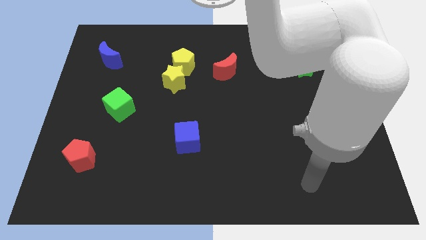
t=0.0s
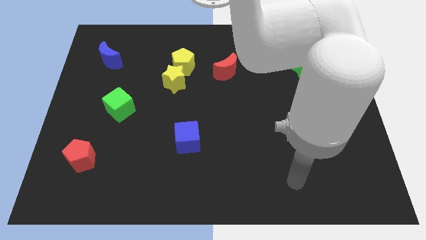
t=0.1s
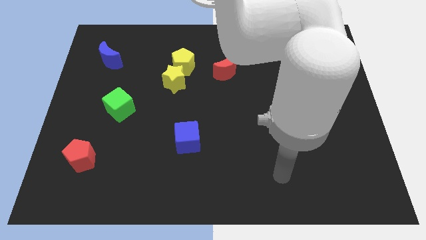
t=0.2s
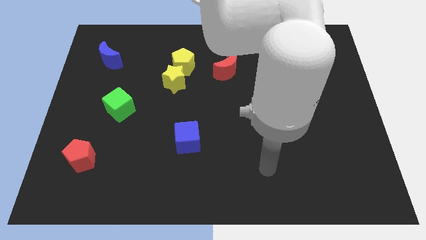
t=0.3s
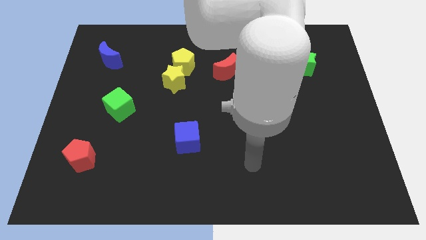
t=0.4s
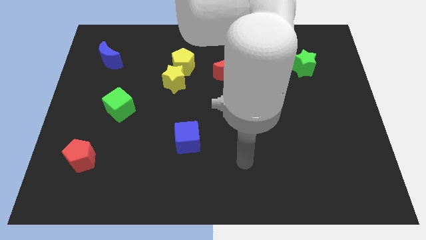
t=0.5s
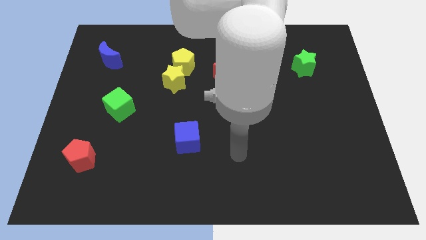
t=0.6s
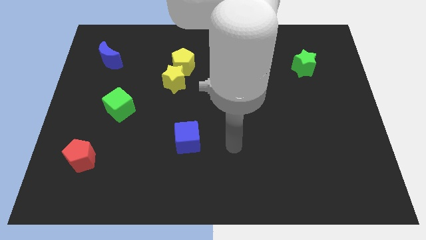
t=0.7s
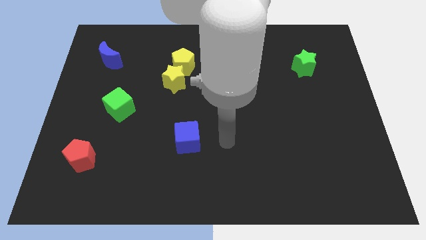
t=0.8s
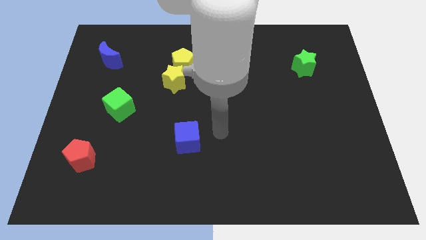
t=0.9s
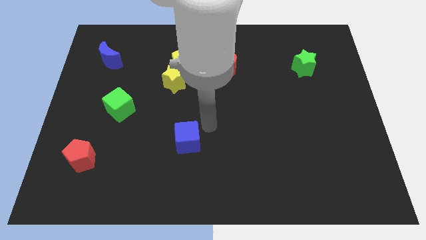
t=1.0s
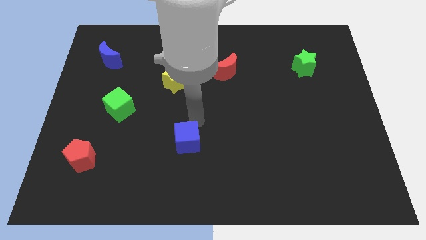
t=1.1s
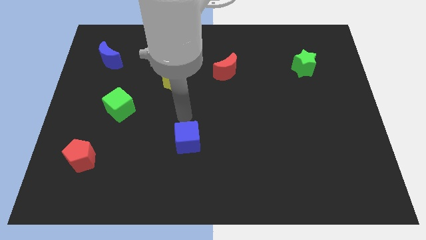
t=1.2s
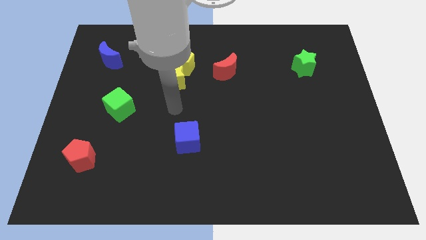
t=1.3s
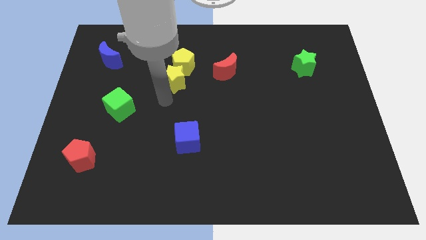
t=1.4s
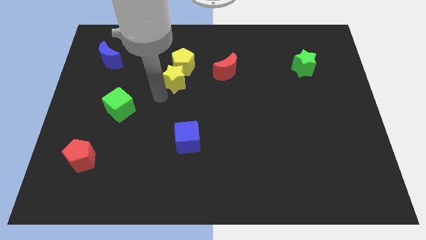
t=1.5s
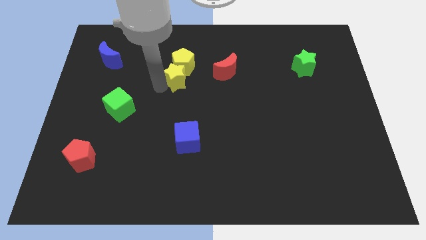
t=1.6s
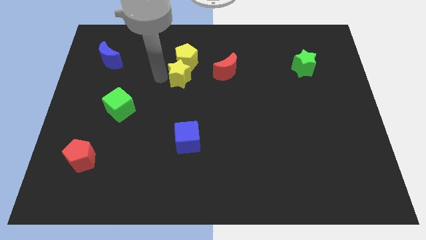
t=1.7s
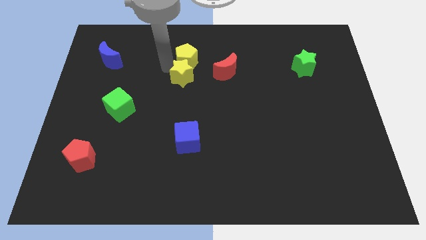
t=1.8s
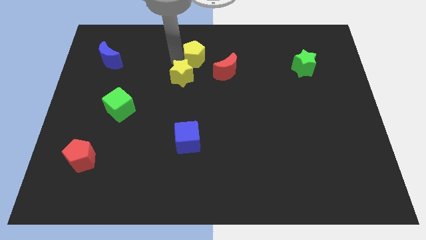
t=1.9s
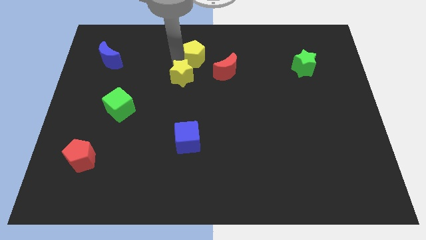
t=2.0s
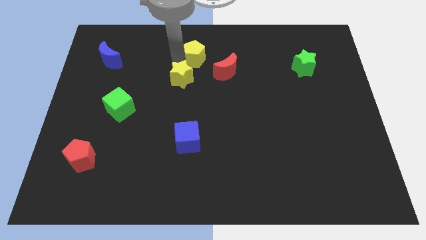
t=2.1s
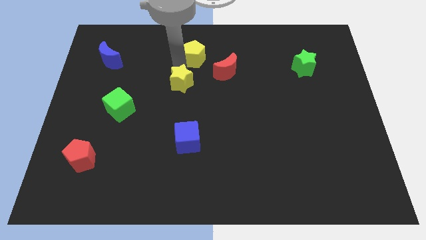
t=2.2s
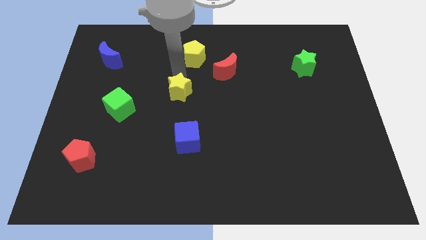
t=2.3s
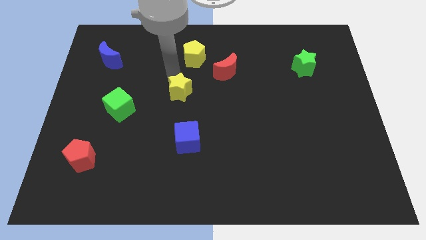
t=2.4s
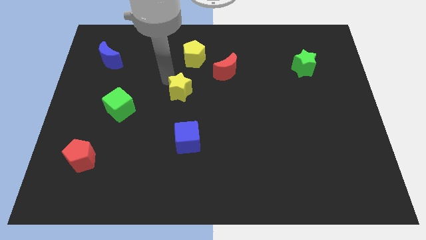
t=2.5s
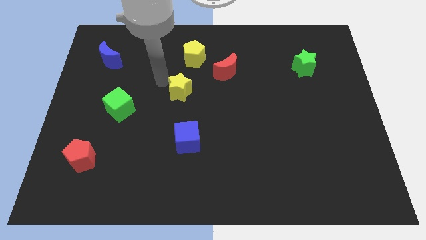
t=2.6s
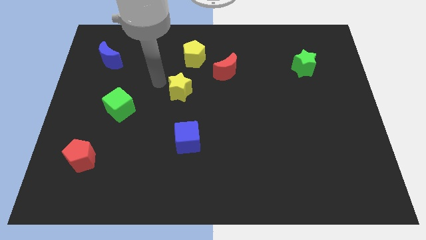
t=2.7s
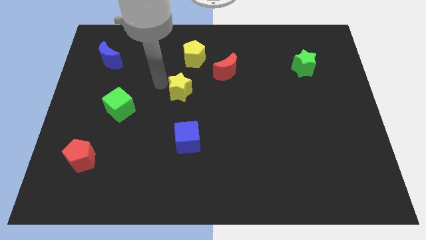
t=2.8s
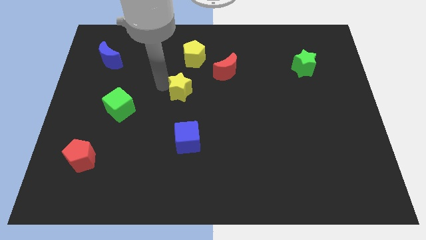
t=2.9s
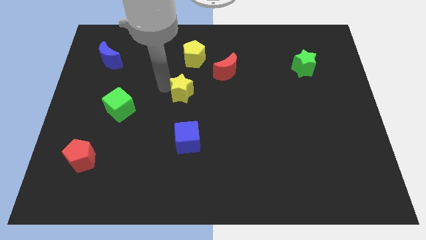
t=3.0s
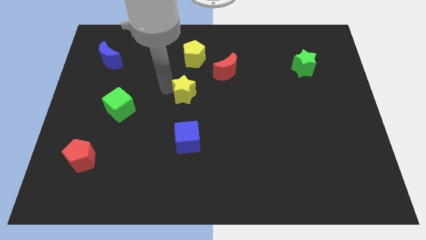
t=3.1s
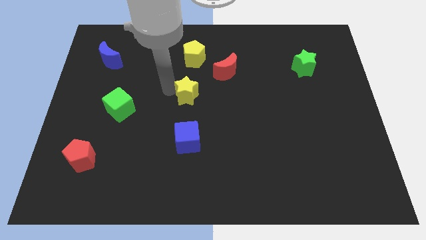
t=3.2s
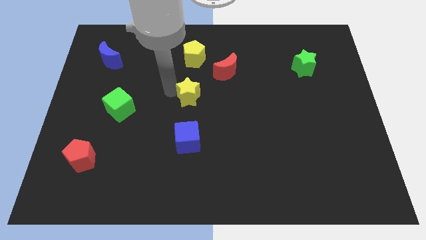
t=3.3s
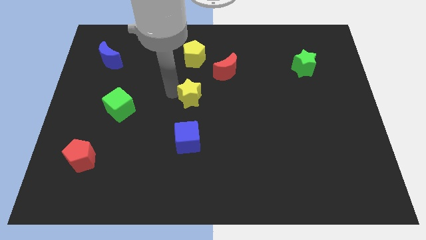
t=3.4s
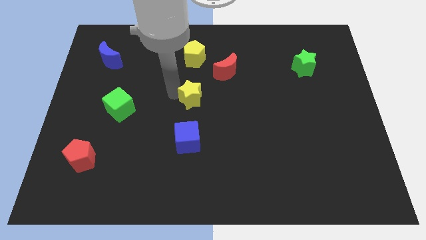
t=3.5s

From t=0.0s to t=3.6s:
push the yellow star slightly downwards and then right

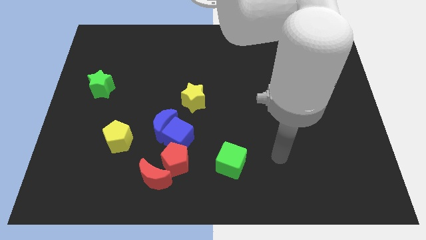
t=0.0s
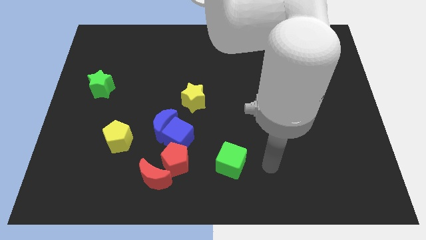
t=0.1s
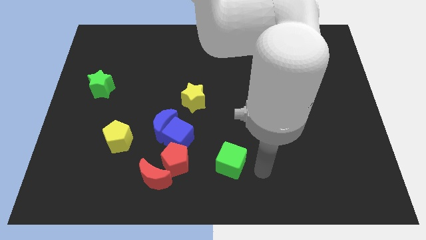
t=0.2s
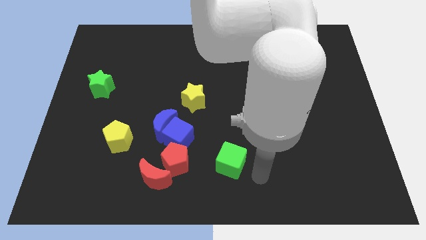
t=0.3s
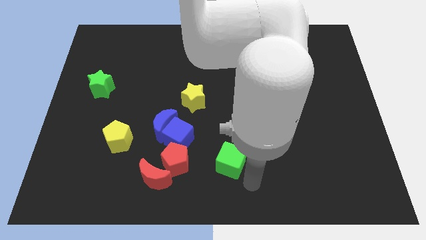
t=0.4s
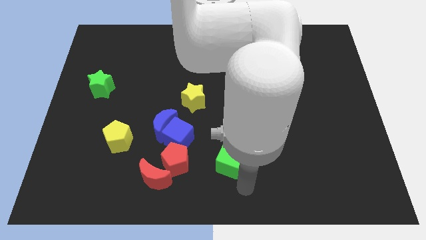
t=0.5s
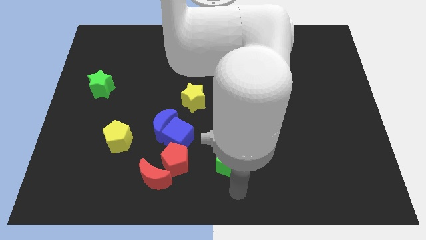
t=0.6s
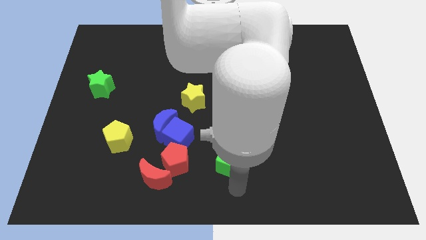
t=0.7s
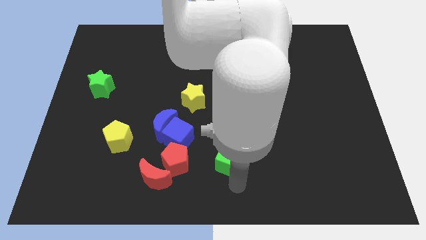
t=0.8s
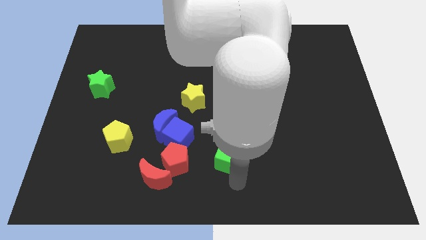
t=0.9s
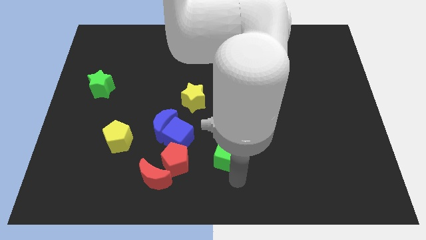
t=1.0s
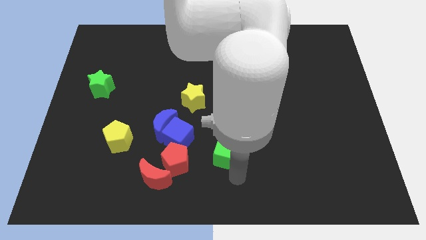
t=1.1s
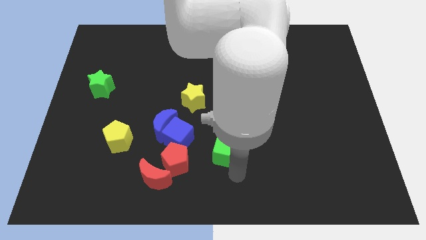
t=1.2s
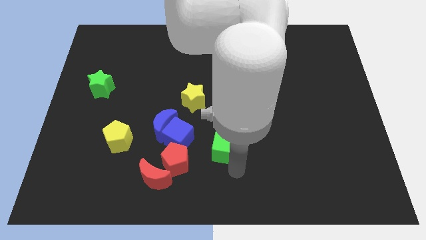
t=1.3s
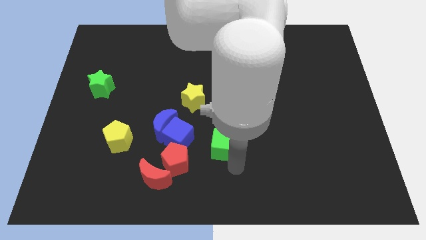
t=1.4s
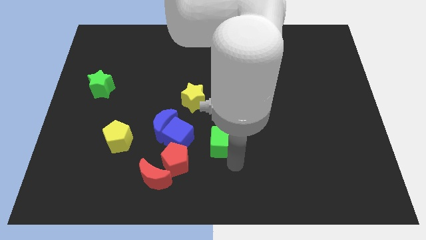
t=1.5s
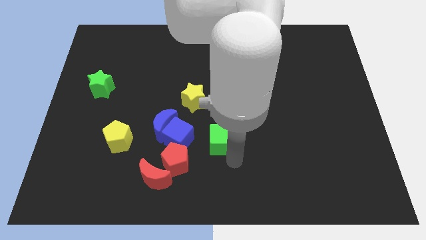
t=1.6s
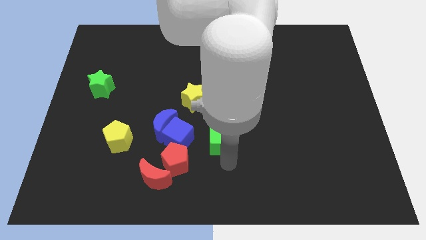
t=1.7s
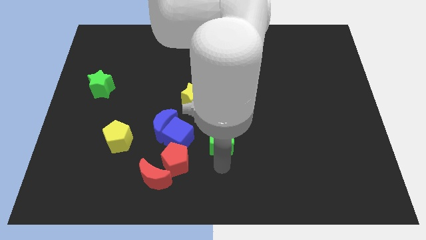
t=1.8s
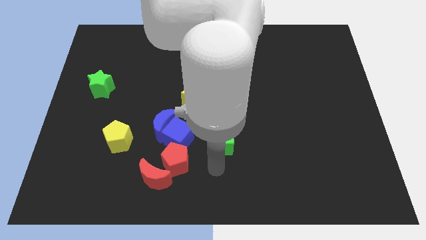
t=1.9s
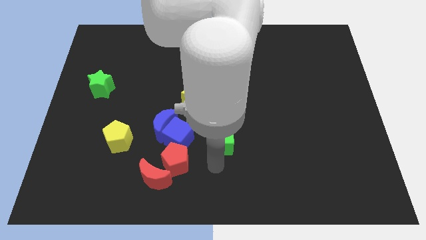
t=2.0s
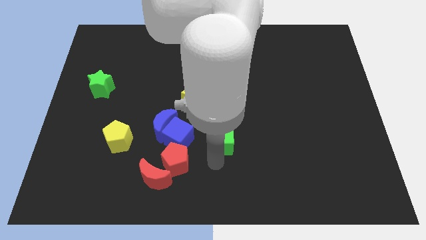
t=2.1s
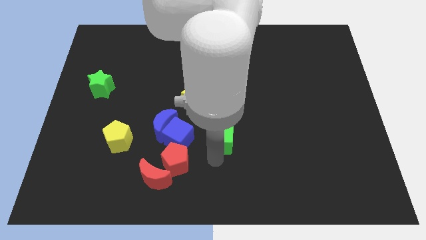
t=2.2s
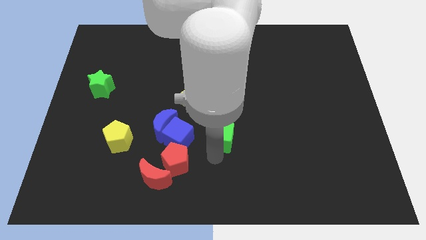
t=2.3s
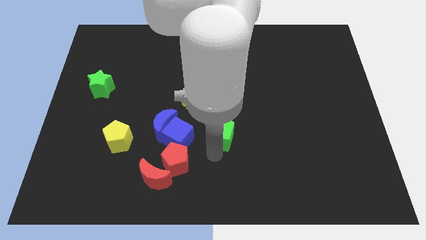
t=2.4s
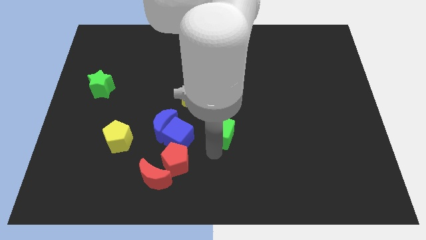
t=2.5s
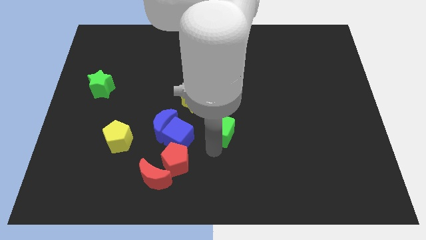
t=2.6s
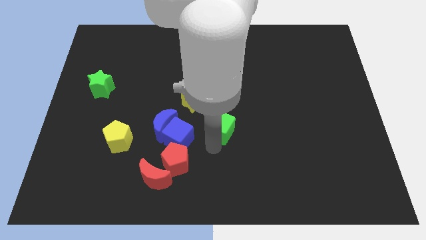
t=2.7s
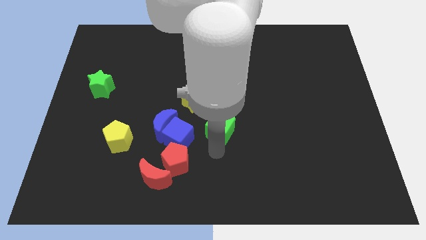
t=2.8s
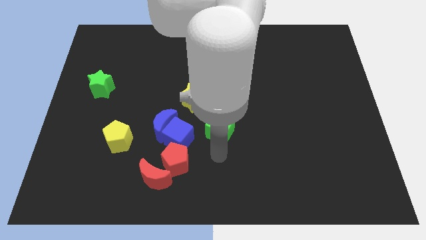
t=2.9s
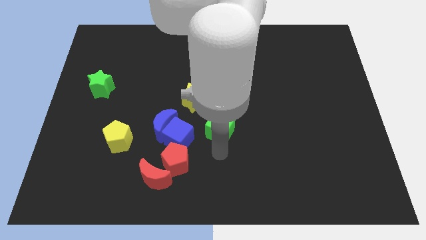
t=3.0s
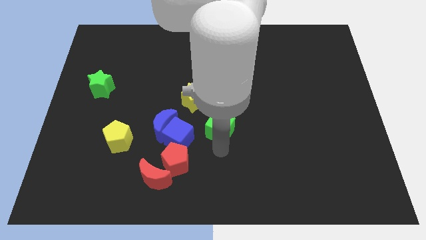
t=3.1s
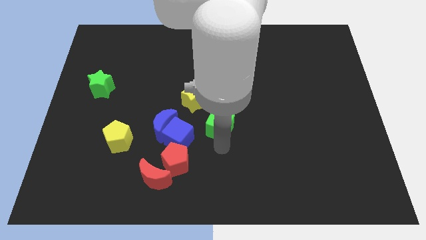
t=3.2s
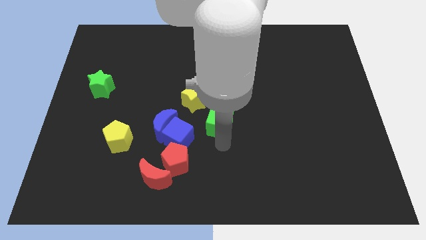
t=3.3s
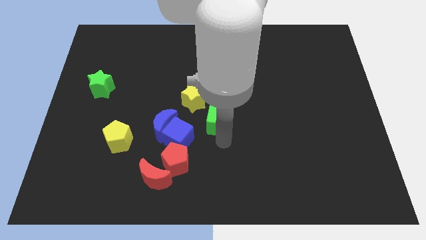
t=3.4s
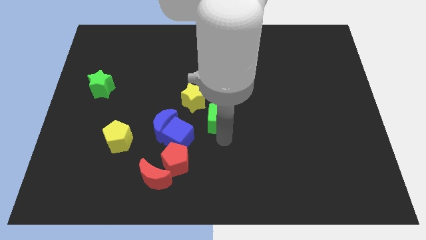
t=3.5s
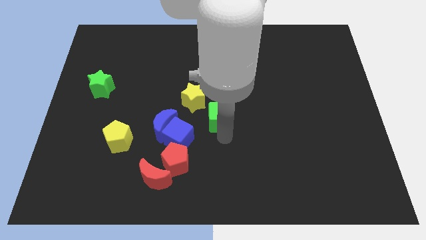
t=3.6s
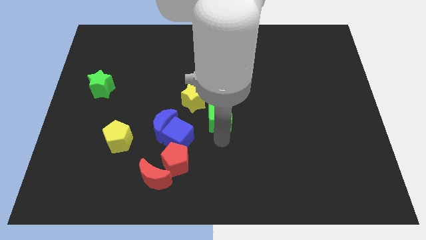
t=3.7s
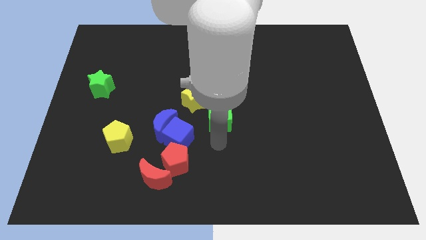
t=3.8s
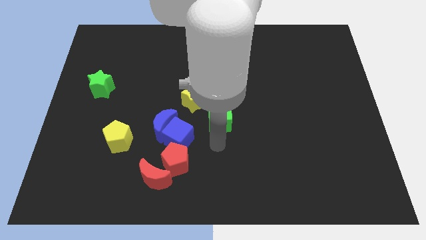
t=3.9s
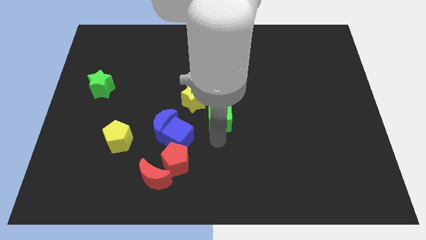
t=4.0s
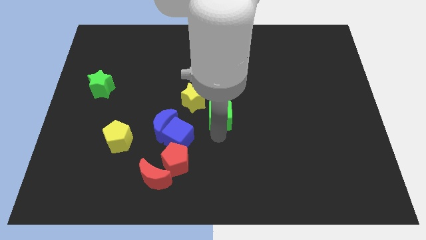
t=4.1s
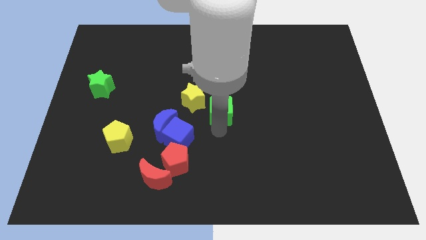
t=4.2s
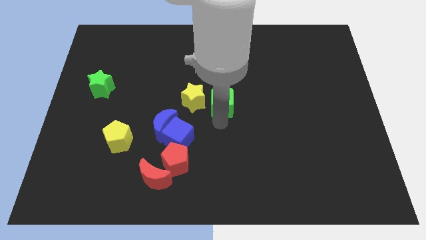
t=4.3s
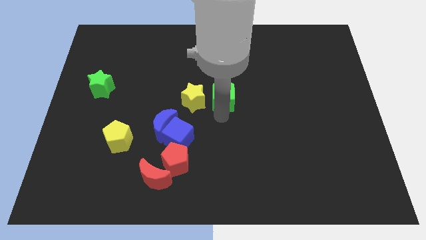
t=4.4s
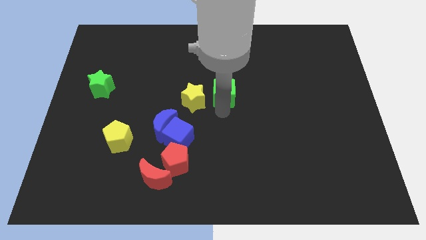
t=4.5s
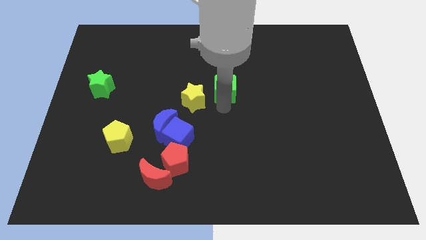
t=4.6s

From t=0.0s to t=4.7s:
move the green cube upwards
